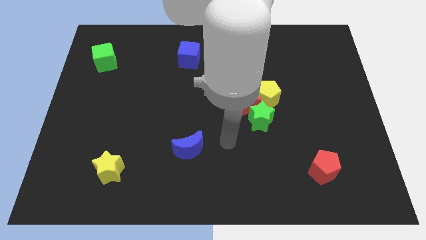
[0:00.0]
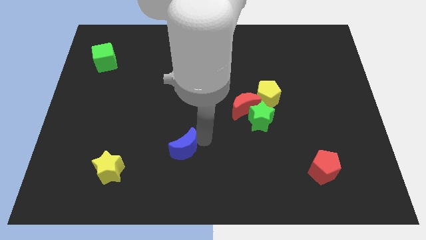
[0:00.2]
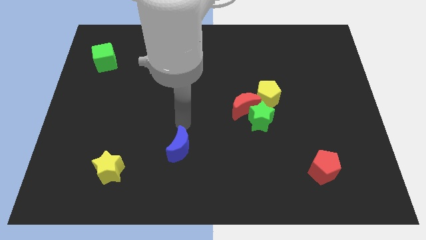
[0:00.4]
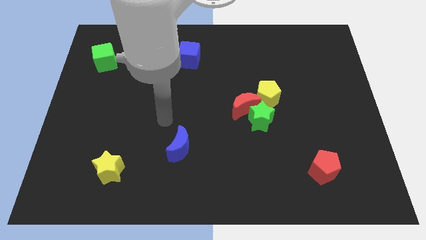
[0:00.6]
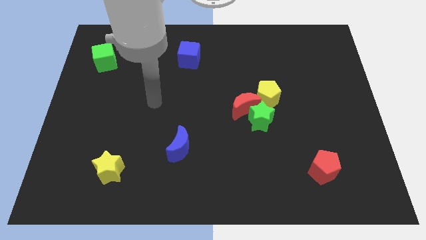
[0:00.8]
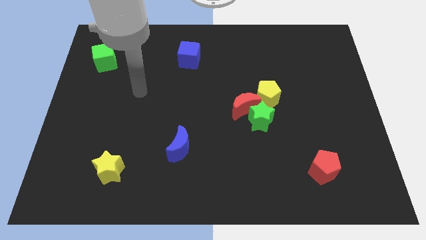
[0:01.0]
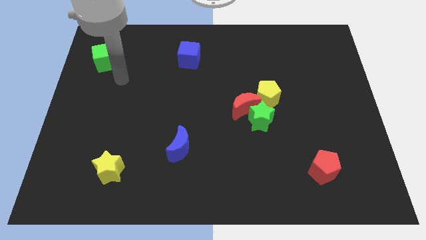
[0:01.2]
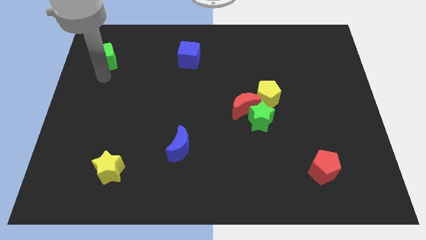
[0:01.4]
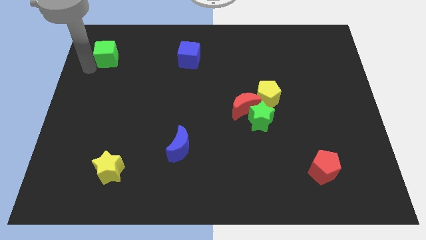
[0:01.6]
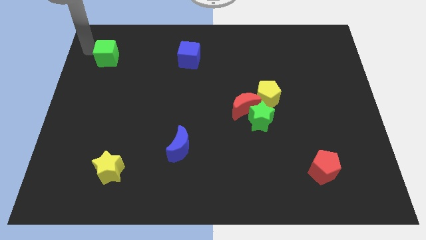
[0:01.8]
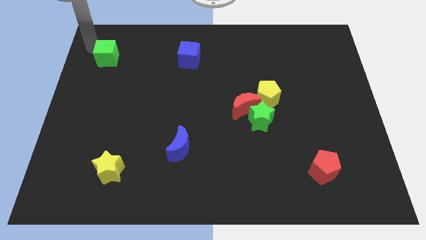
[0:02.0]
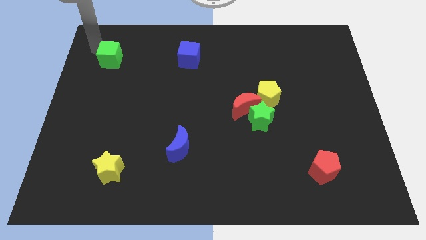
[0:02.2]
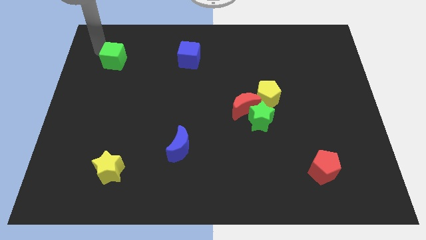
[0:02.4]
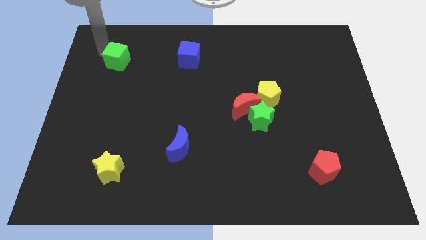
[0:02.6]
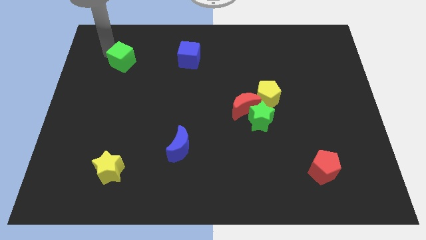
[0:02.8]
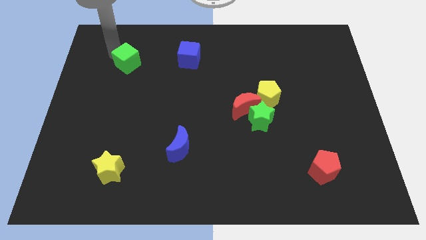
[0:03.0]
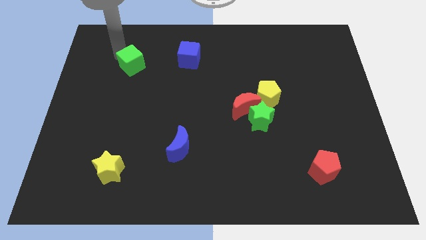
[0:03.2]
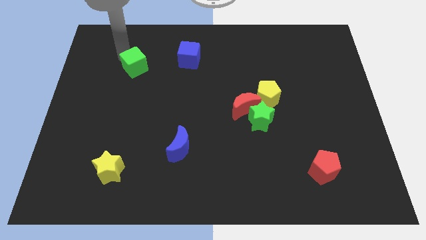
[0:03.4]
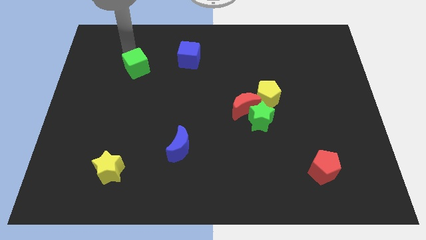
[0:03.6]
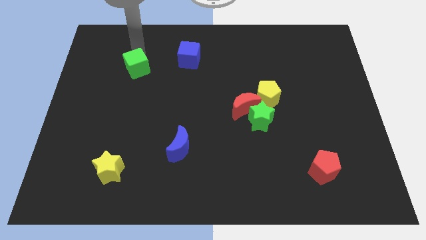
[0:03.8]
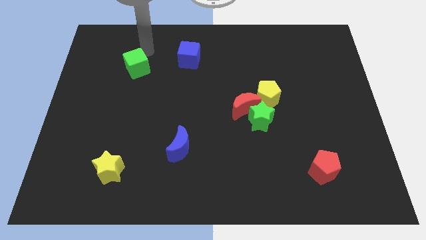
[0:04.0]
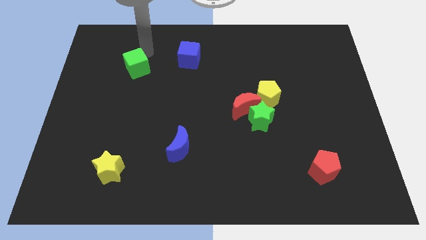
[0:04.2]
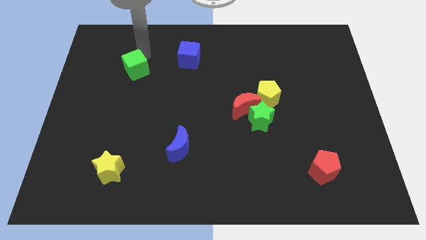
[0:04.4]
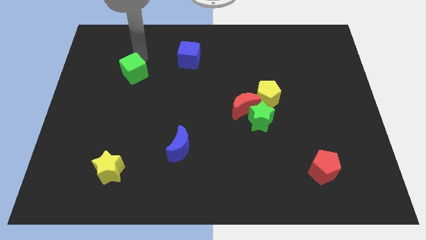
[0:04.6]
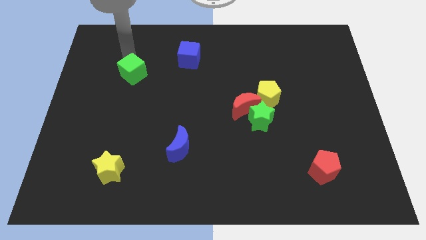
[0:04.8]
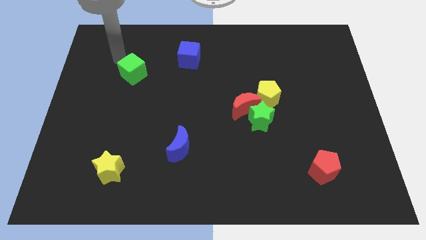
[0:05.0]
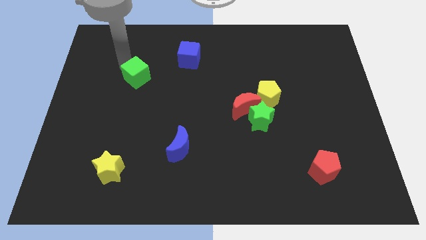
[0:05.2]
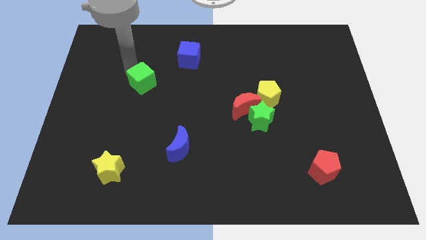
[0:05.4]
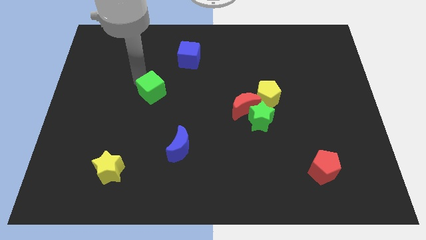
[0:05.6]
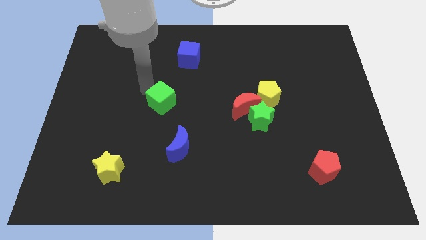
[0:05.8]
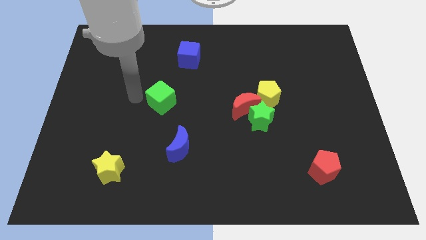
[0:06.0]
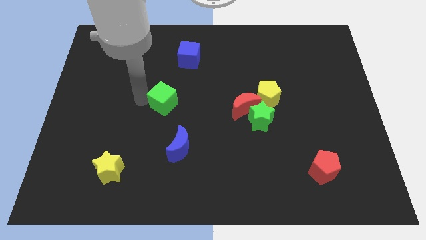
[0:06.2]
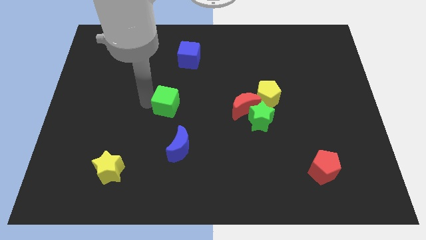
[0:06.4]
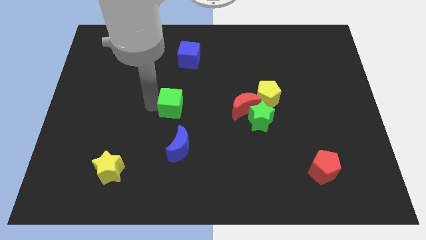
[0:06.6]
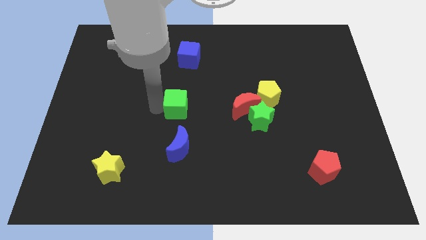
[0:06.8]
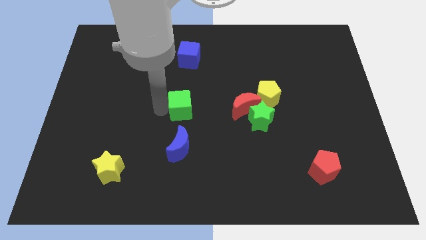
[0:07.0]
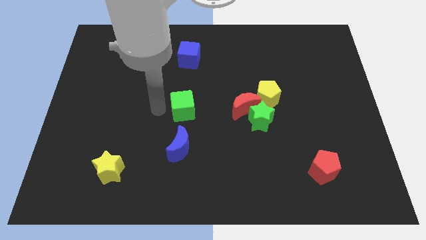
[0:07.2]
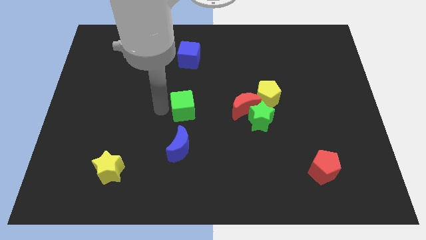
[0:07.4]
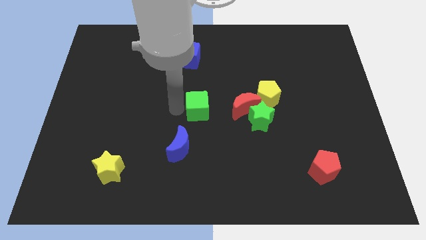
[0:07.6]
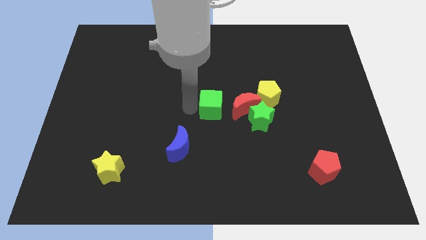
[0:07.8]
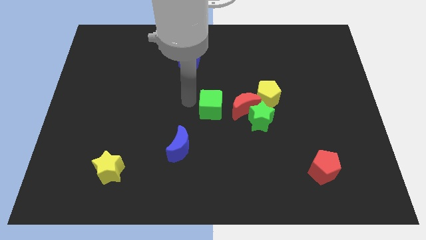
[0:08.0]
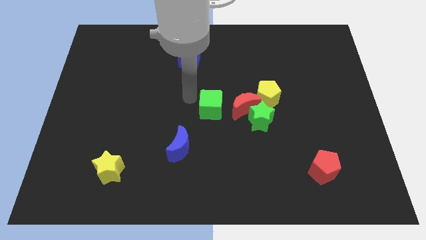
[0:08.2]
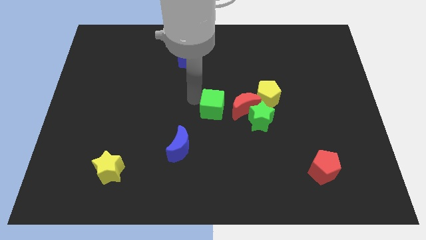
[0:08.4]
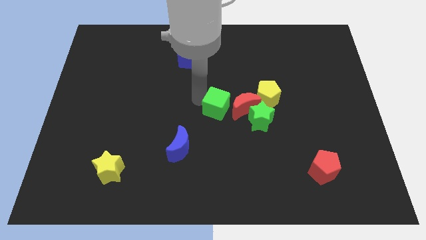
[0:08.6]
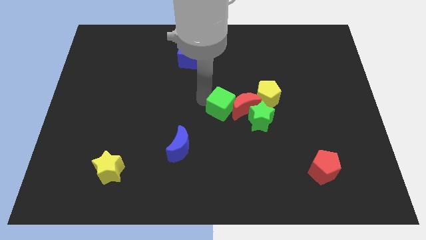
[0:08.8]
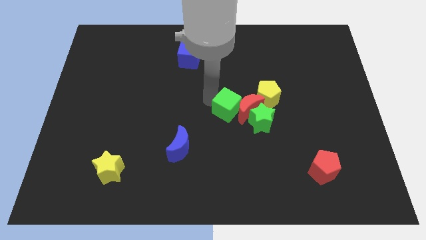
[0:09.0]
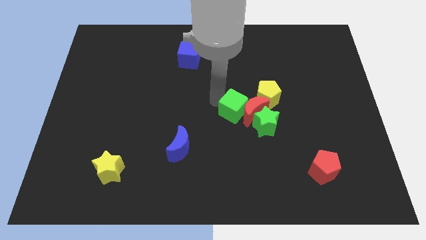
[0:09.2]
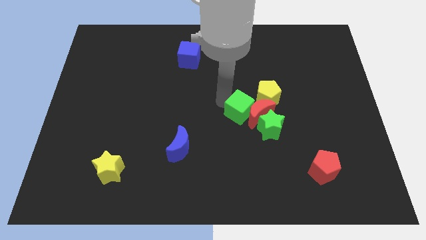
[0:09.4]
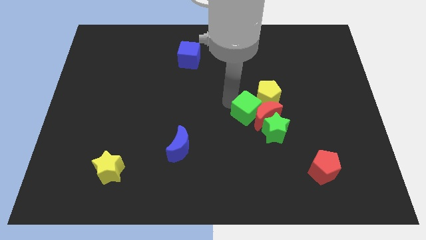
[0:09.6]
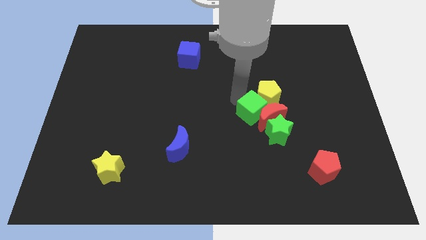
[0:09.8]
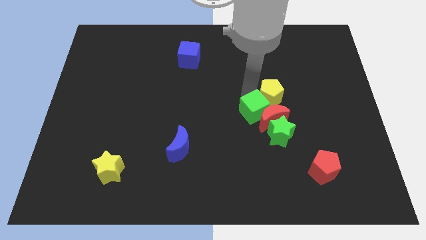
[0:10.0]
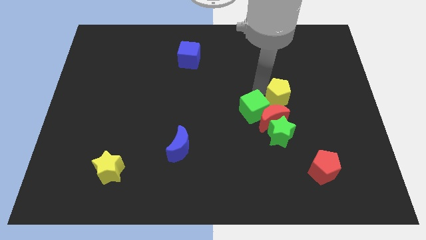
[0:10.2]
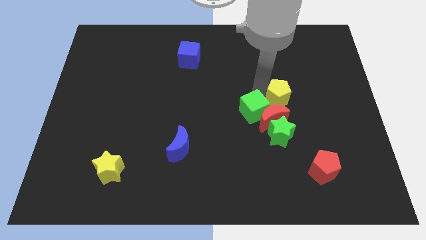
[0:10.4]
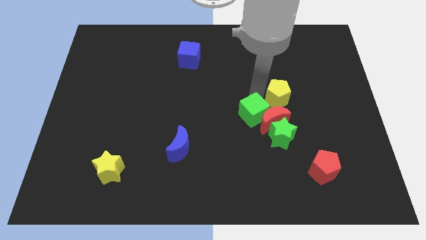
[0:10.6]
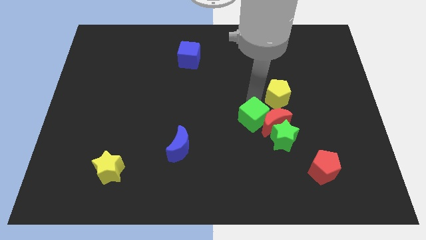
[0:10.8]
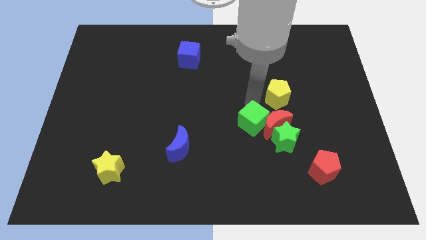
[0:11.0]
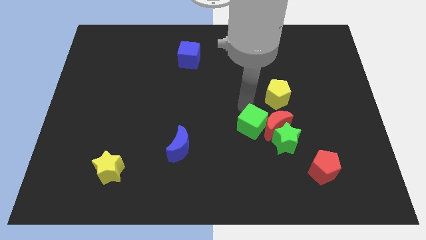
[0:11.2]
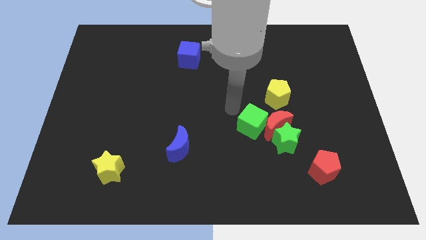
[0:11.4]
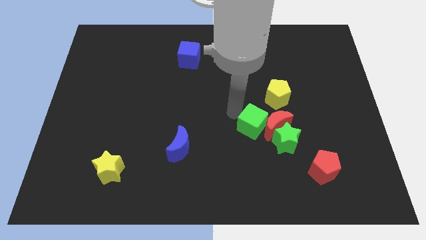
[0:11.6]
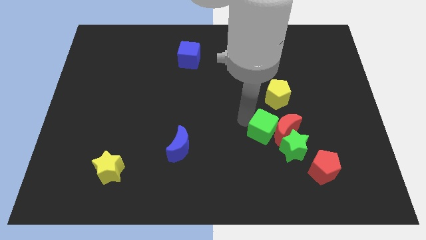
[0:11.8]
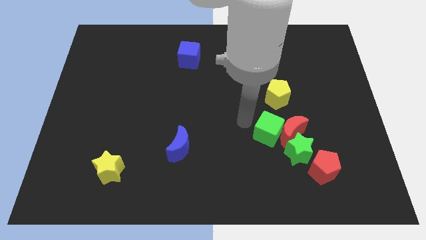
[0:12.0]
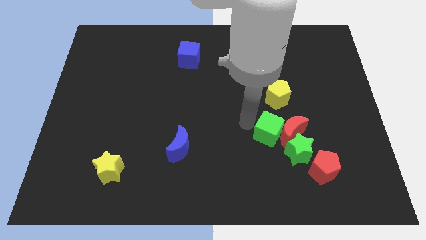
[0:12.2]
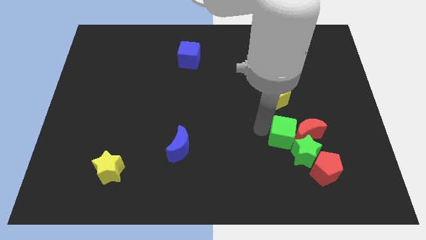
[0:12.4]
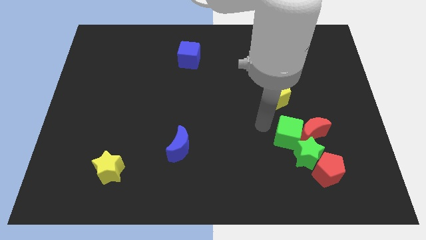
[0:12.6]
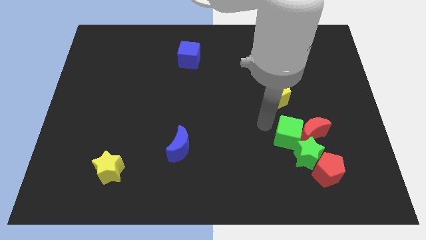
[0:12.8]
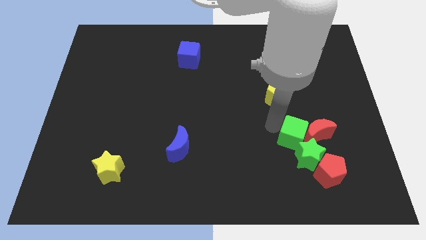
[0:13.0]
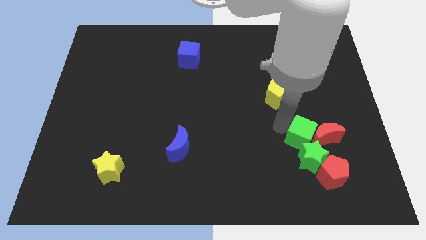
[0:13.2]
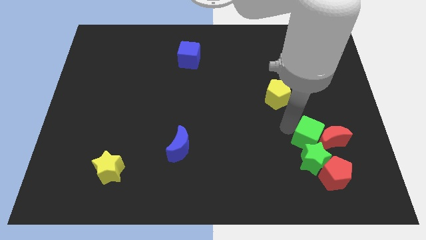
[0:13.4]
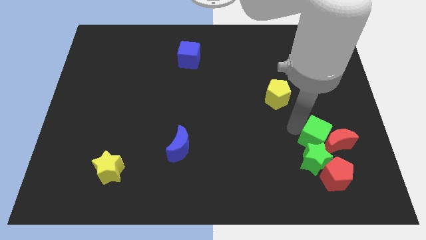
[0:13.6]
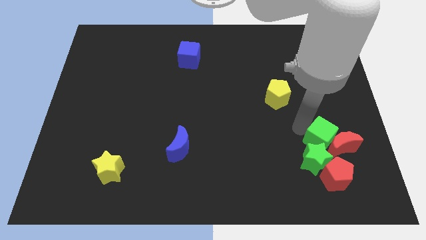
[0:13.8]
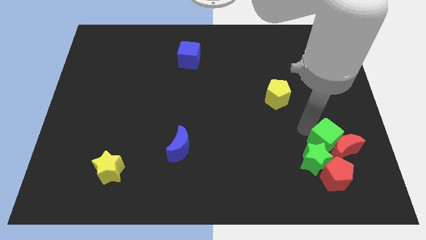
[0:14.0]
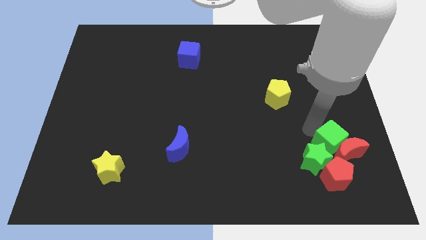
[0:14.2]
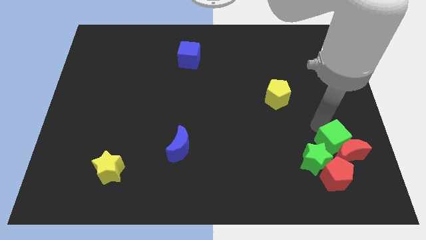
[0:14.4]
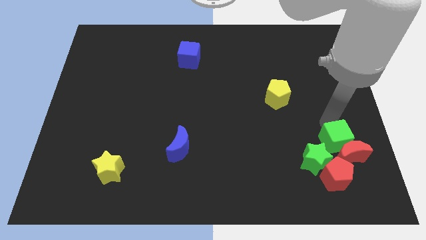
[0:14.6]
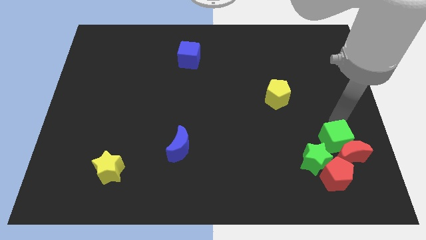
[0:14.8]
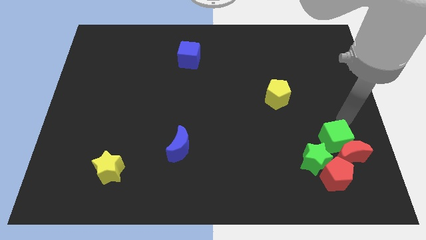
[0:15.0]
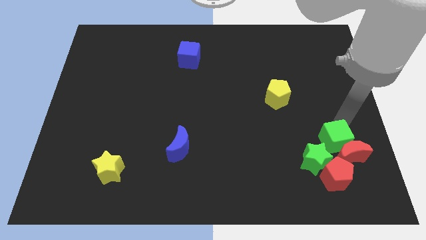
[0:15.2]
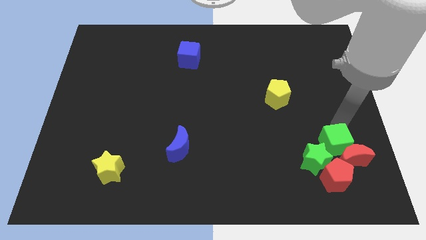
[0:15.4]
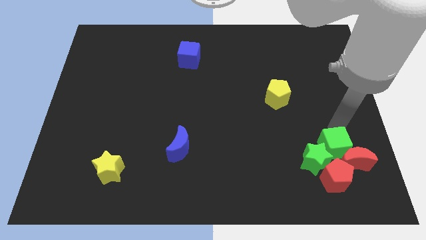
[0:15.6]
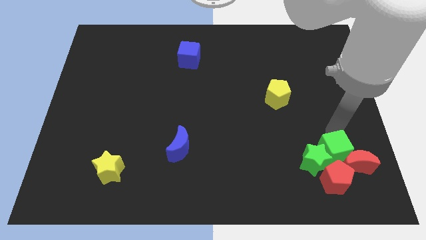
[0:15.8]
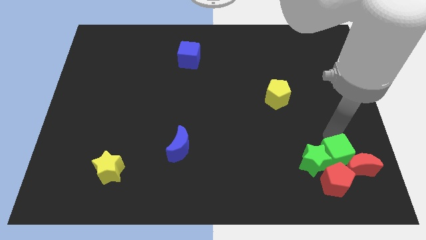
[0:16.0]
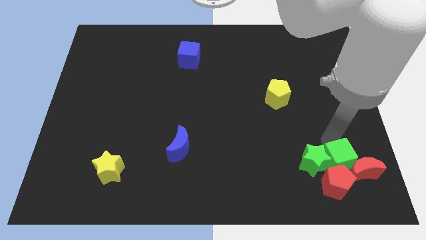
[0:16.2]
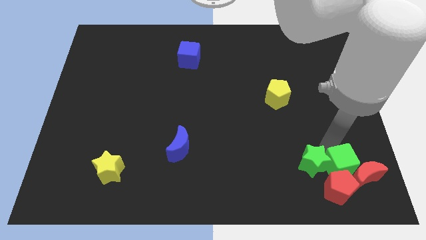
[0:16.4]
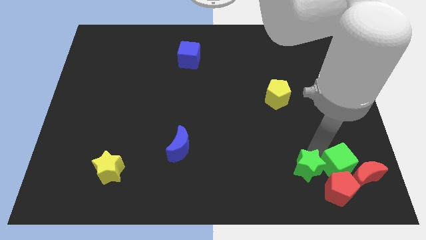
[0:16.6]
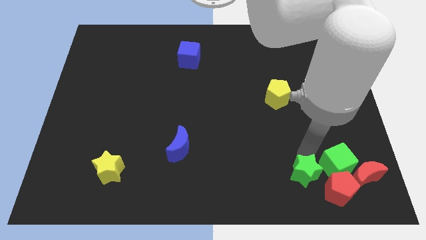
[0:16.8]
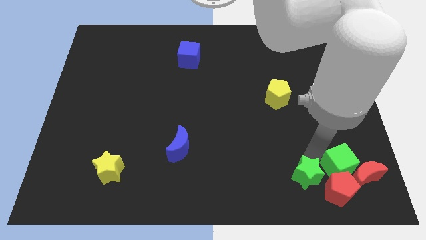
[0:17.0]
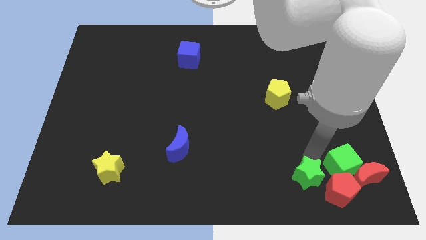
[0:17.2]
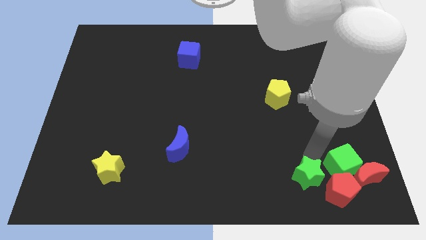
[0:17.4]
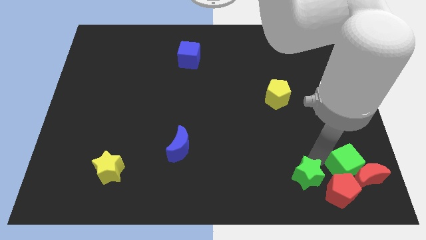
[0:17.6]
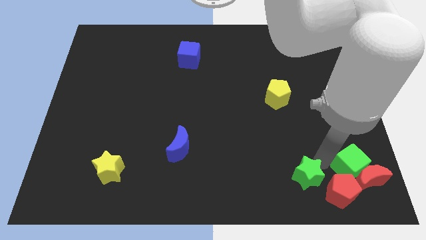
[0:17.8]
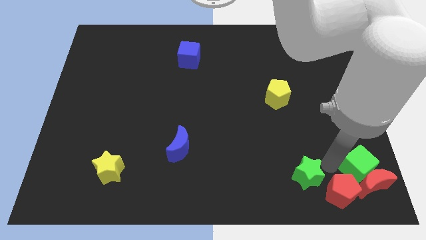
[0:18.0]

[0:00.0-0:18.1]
push the green cube to the bottom right
